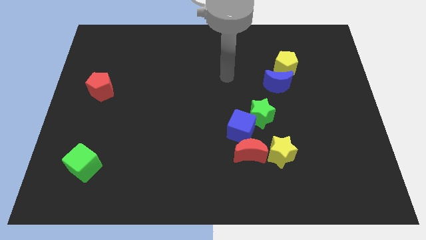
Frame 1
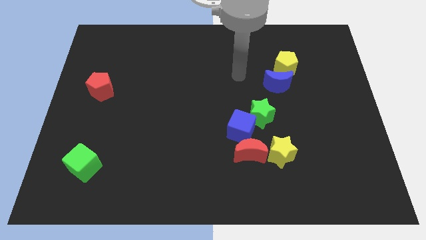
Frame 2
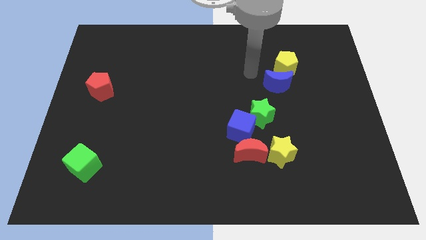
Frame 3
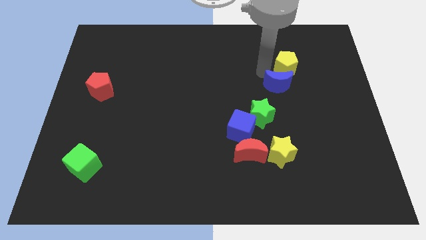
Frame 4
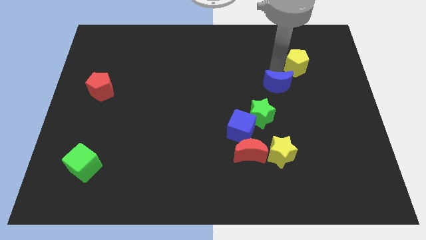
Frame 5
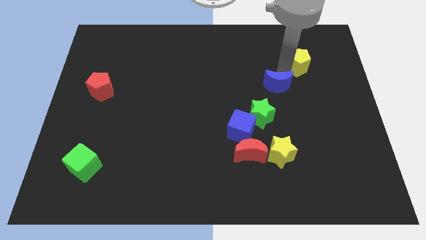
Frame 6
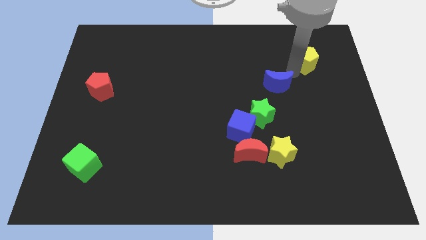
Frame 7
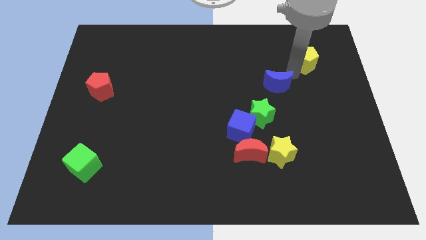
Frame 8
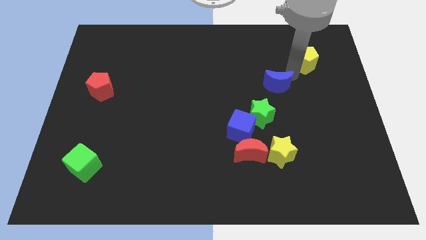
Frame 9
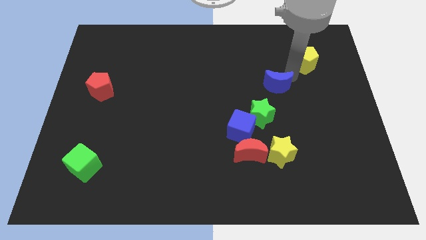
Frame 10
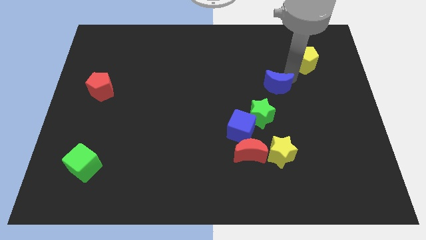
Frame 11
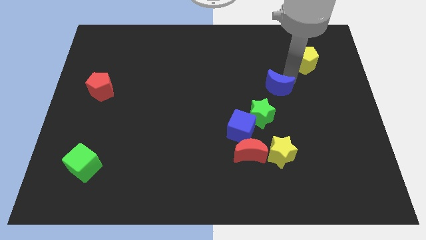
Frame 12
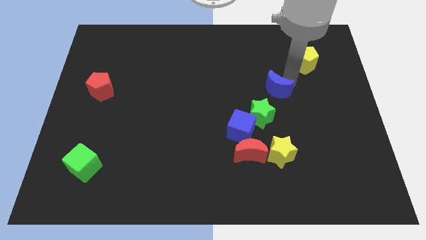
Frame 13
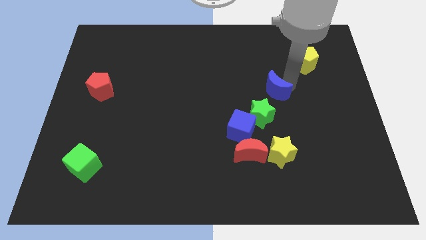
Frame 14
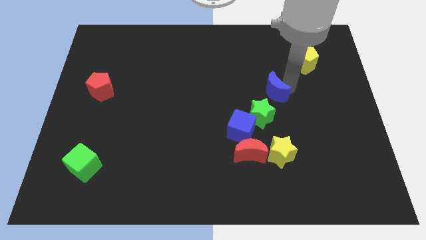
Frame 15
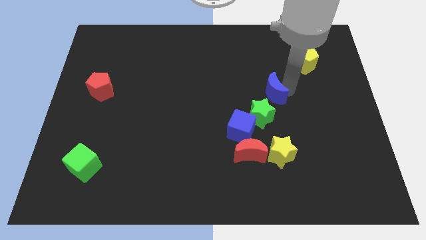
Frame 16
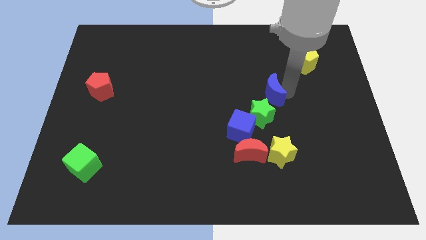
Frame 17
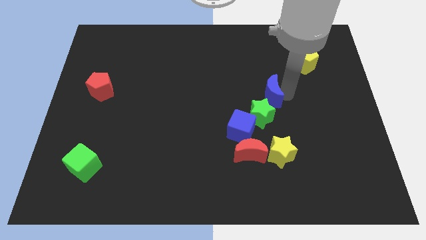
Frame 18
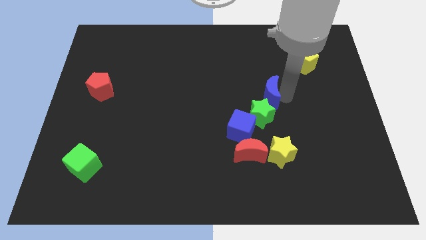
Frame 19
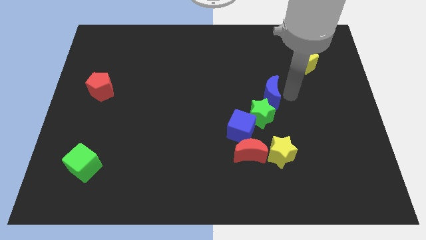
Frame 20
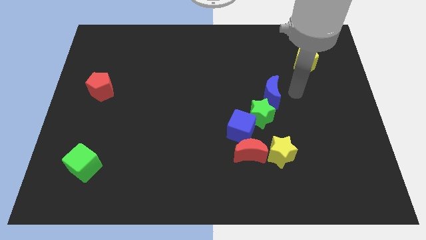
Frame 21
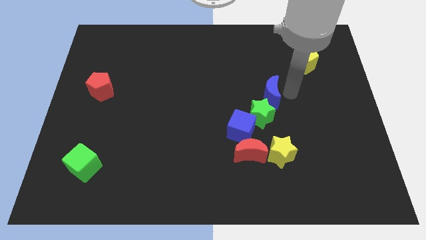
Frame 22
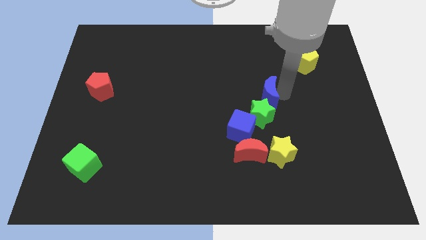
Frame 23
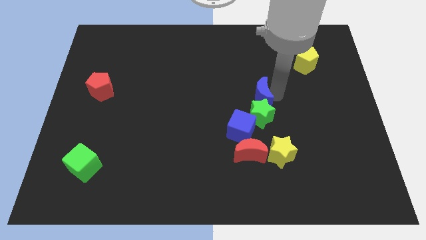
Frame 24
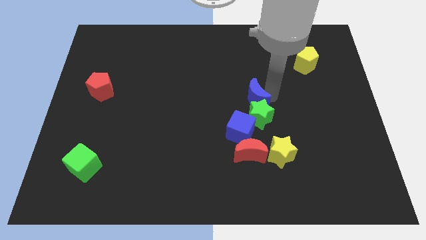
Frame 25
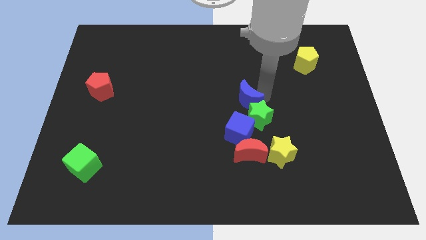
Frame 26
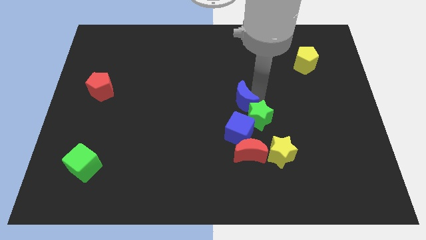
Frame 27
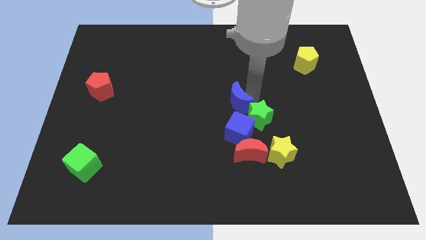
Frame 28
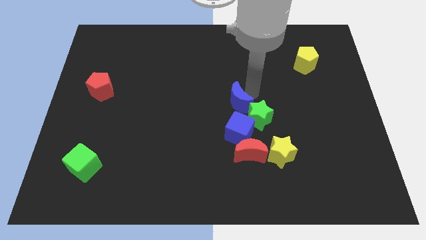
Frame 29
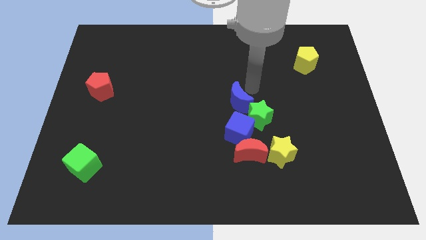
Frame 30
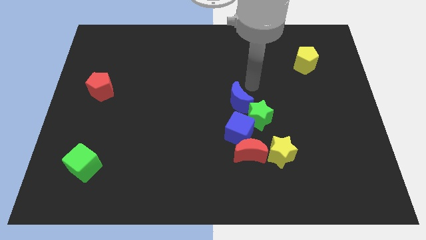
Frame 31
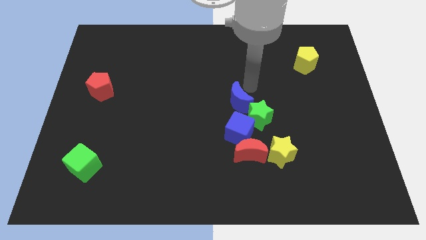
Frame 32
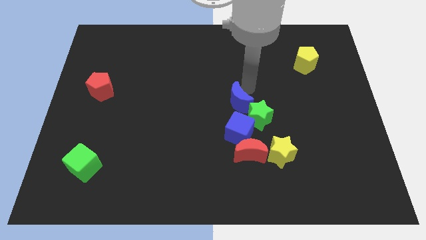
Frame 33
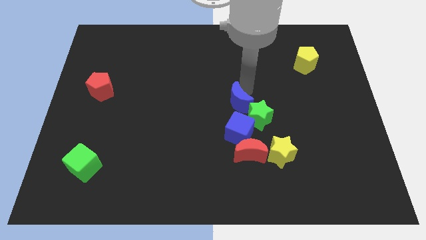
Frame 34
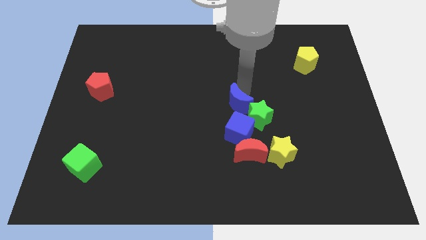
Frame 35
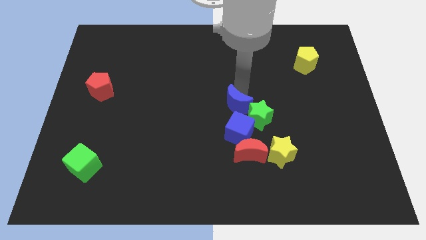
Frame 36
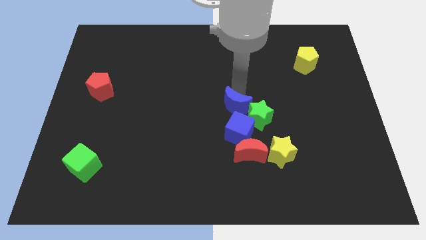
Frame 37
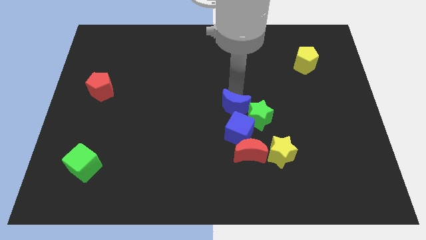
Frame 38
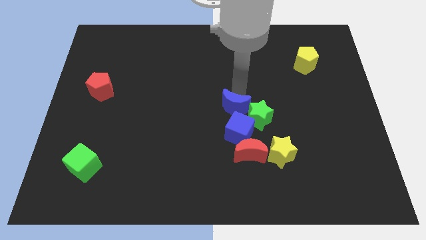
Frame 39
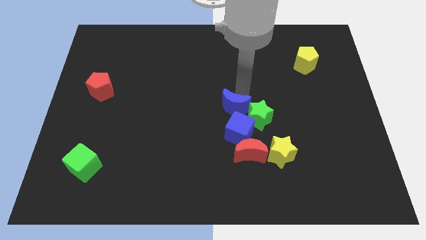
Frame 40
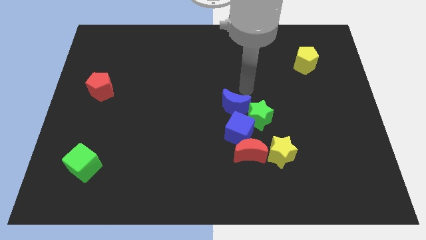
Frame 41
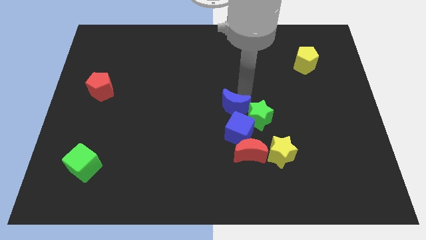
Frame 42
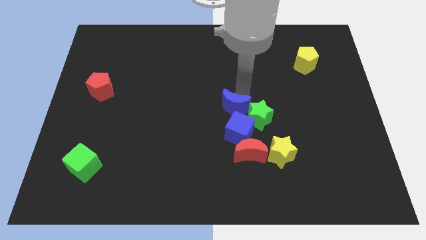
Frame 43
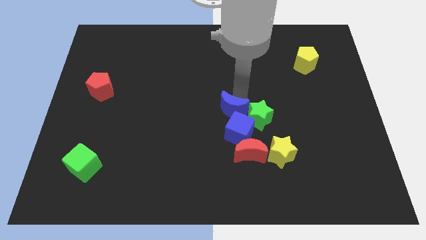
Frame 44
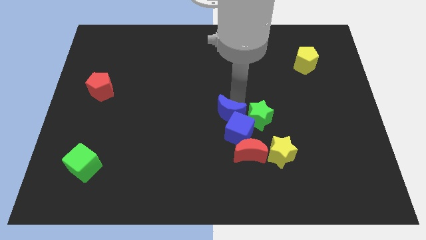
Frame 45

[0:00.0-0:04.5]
move the blue moon to the blue cube

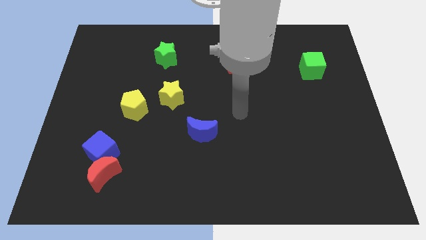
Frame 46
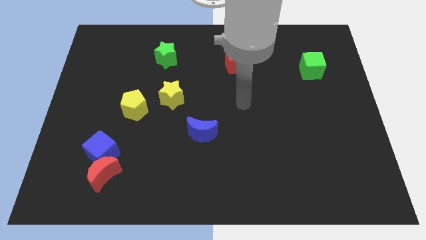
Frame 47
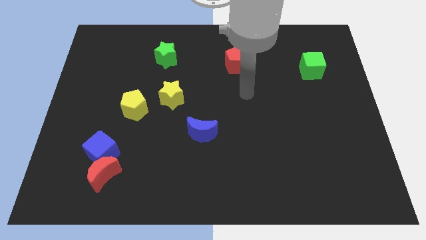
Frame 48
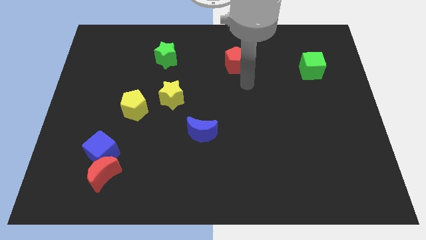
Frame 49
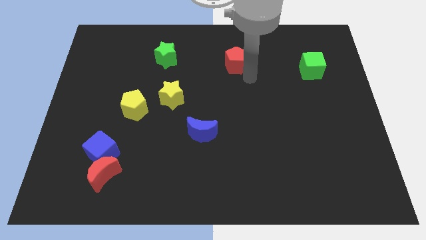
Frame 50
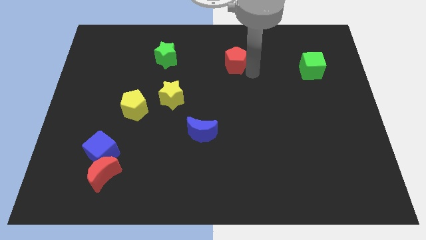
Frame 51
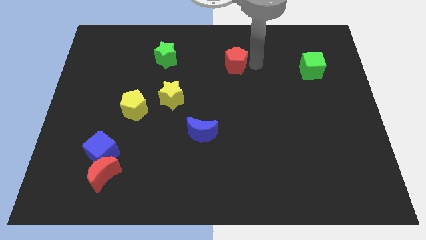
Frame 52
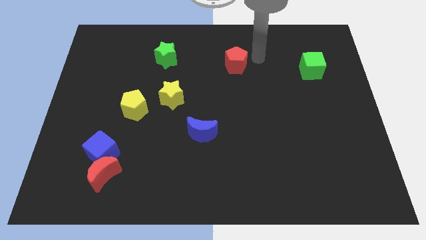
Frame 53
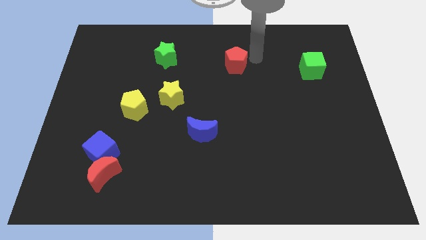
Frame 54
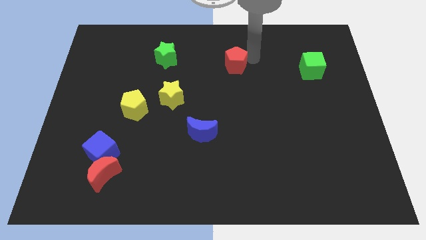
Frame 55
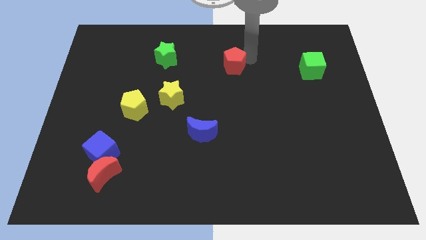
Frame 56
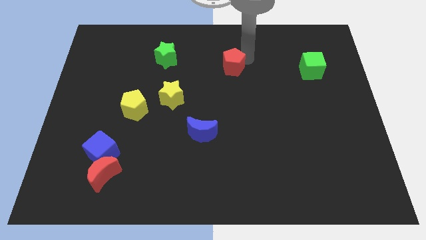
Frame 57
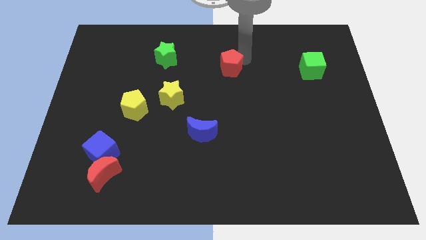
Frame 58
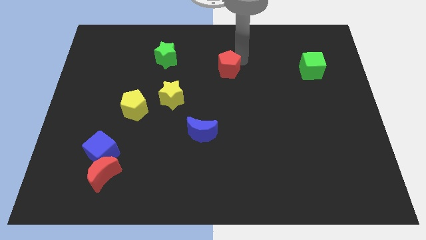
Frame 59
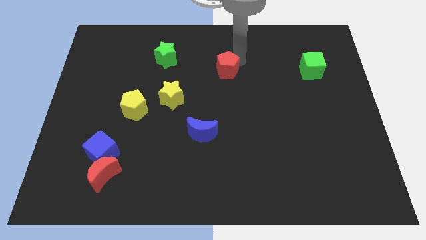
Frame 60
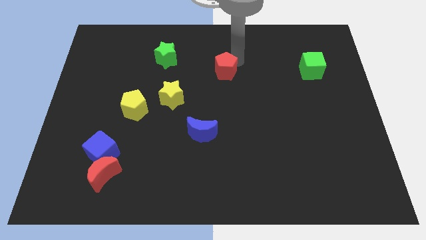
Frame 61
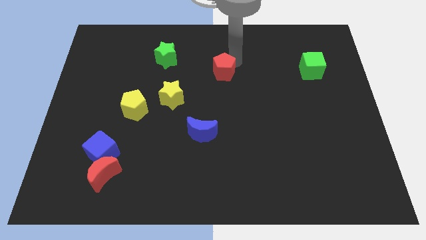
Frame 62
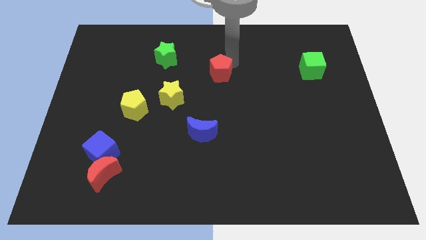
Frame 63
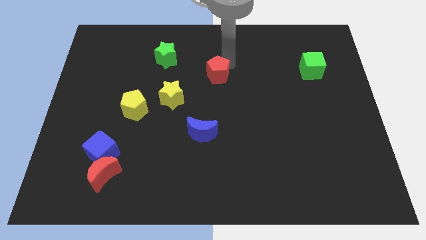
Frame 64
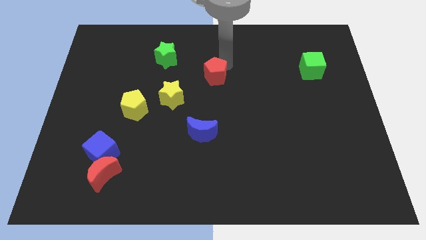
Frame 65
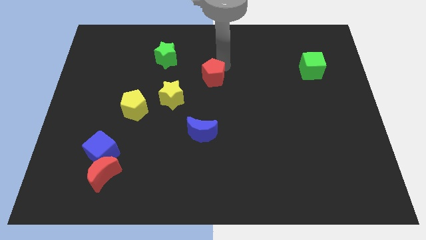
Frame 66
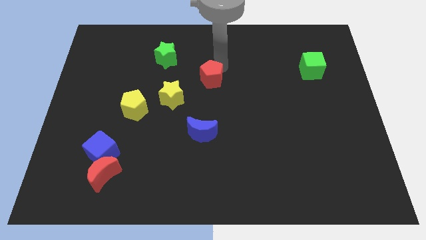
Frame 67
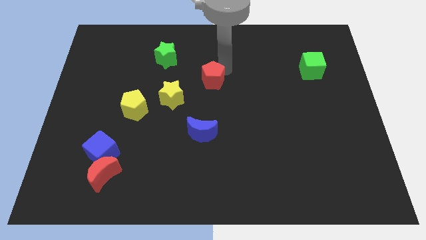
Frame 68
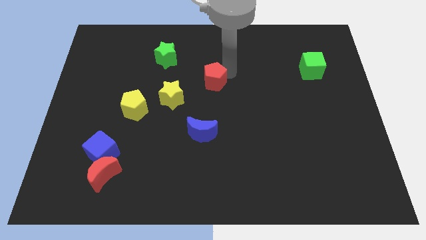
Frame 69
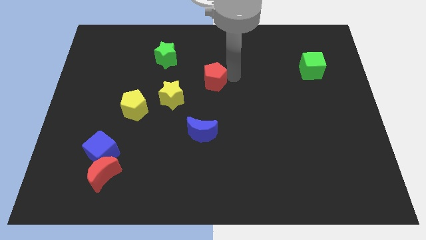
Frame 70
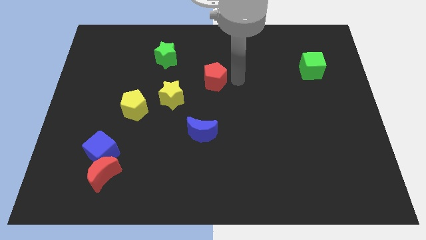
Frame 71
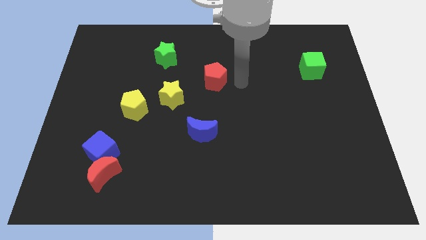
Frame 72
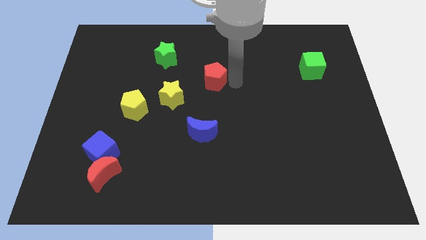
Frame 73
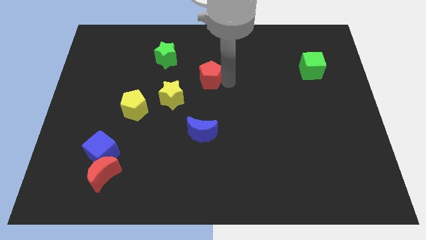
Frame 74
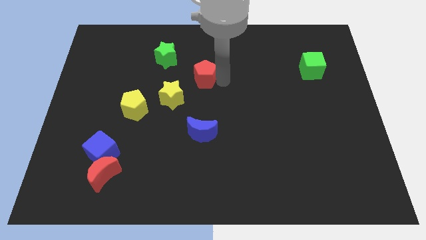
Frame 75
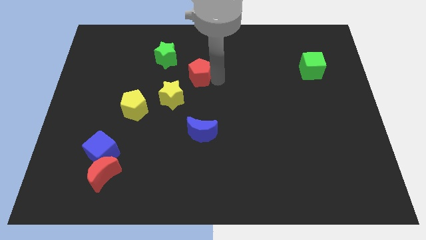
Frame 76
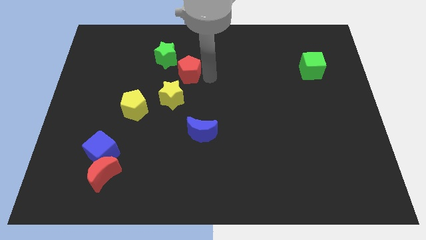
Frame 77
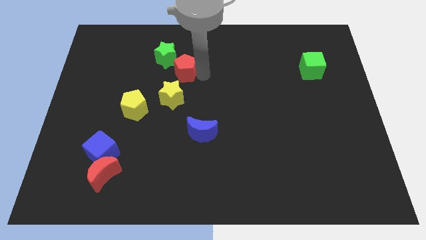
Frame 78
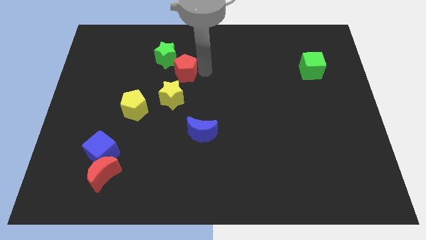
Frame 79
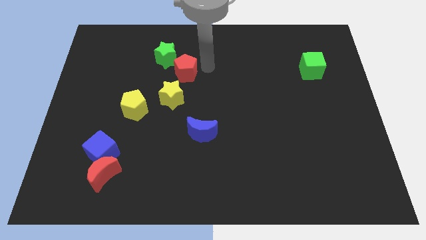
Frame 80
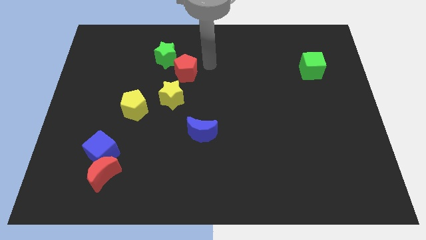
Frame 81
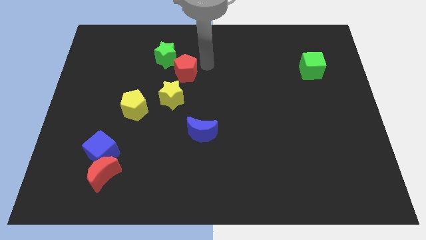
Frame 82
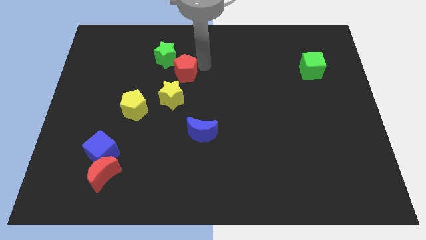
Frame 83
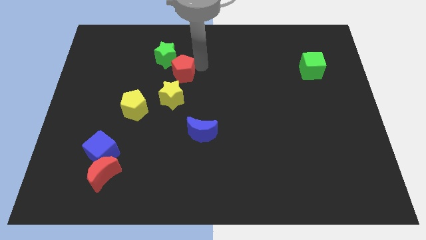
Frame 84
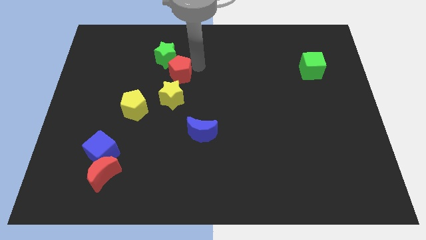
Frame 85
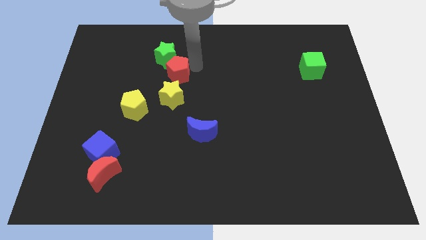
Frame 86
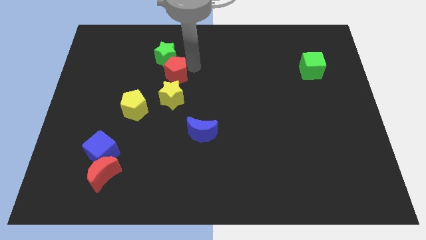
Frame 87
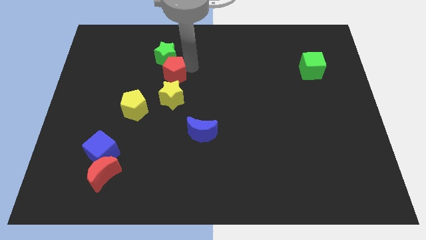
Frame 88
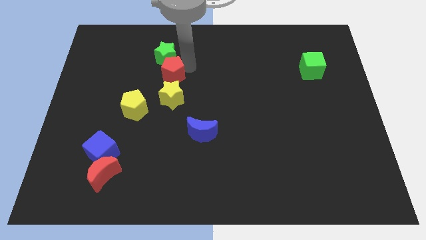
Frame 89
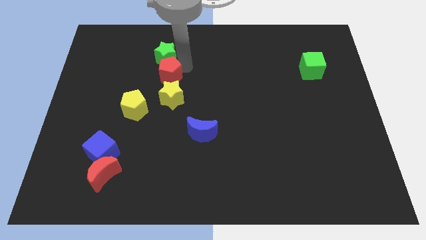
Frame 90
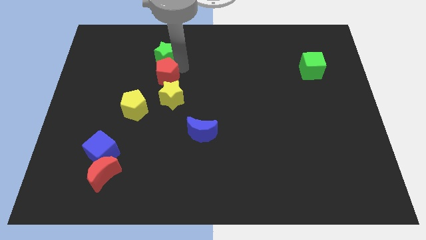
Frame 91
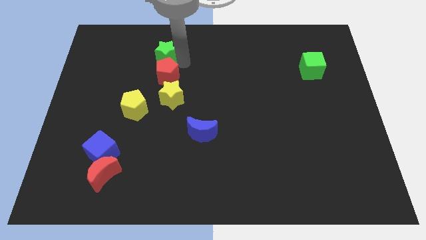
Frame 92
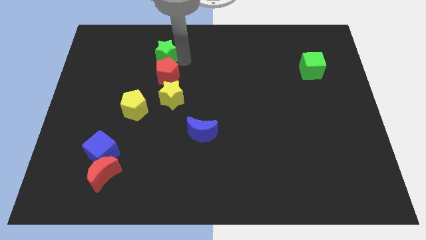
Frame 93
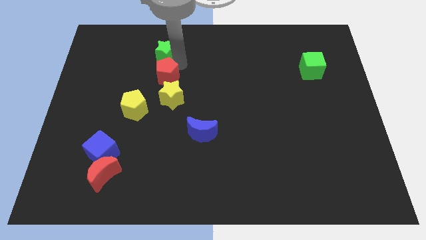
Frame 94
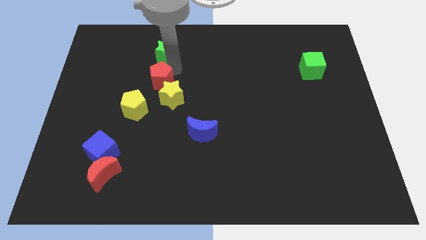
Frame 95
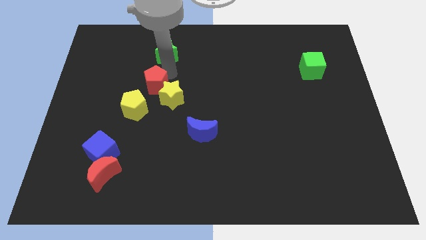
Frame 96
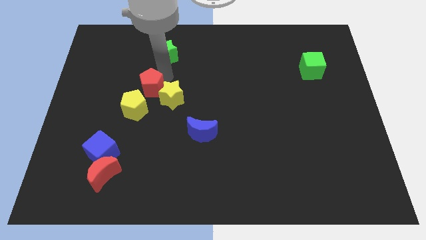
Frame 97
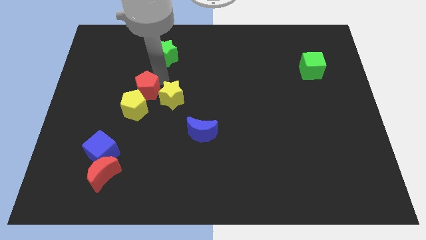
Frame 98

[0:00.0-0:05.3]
push the red pentagon close to the yellow pentagon
